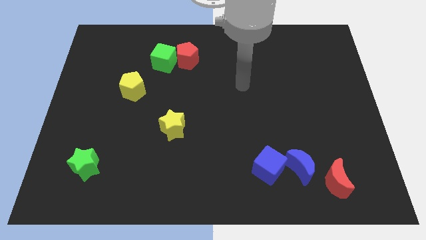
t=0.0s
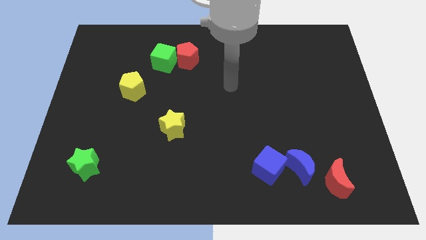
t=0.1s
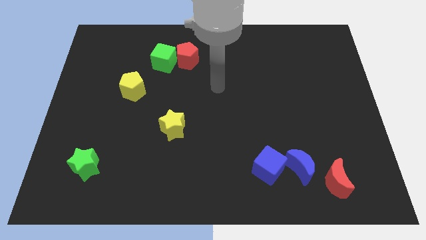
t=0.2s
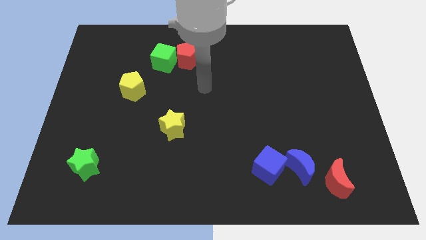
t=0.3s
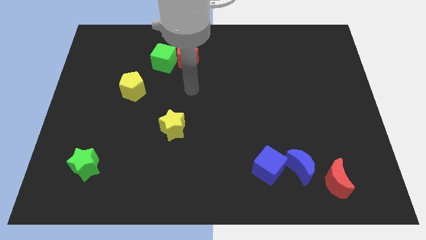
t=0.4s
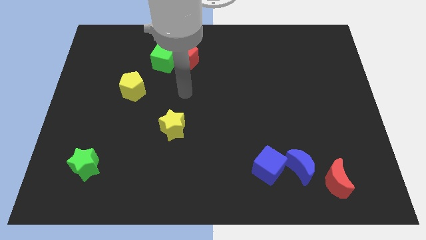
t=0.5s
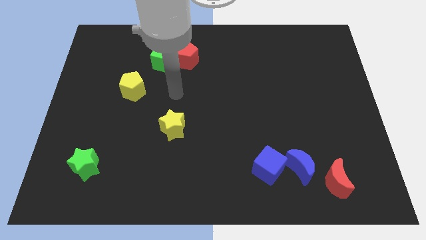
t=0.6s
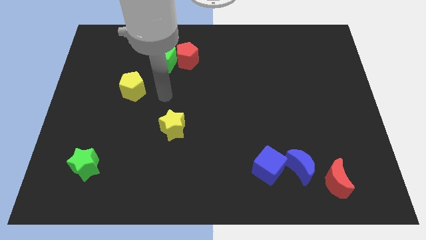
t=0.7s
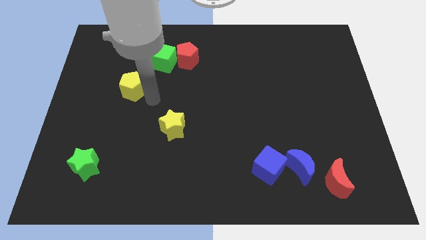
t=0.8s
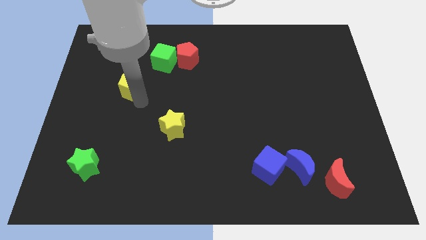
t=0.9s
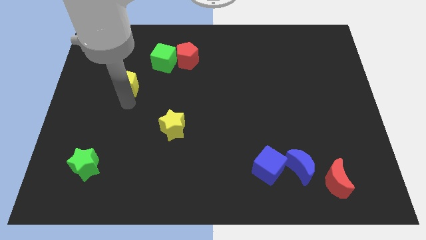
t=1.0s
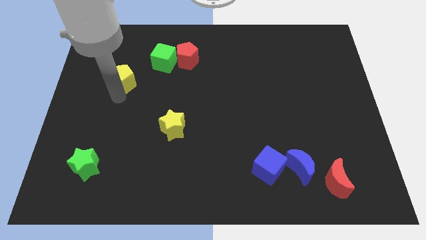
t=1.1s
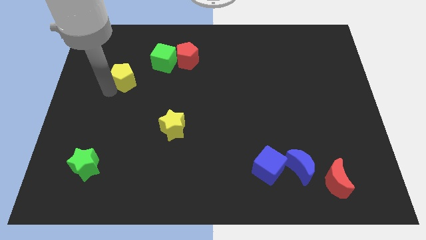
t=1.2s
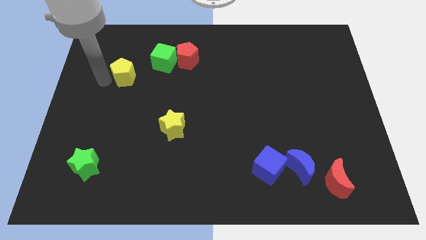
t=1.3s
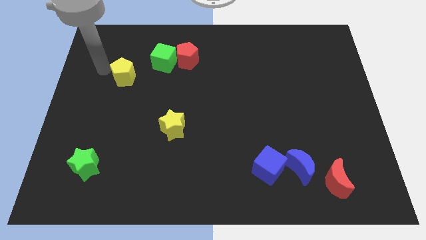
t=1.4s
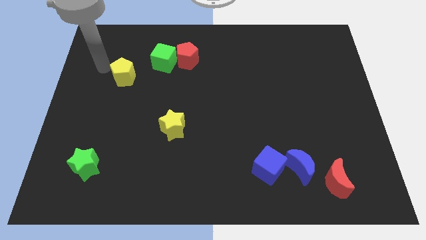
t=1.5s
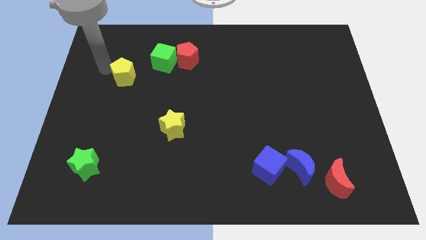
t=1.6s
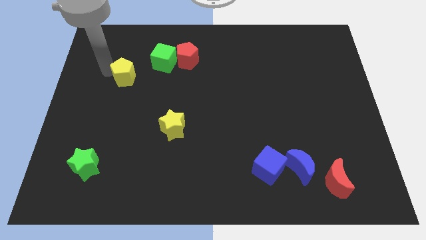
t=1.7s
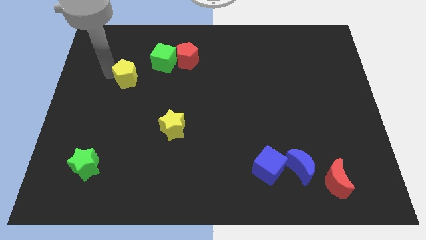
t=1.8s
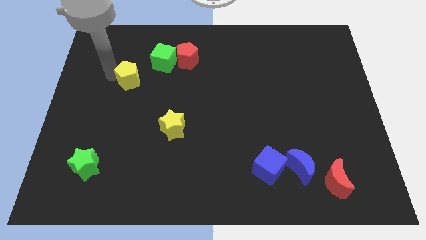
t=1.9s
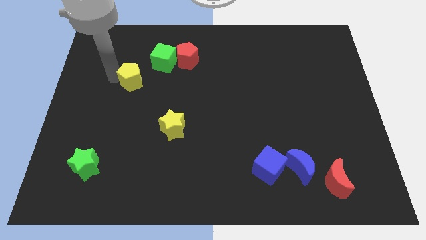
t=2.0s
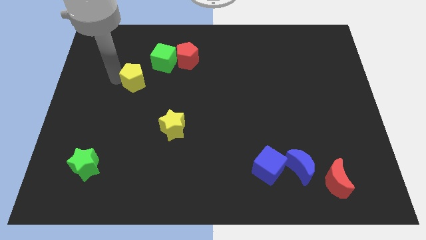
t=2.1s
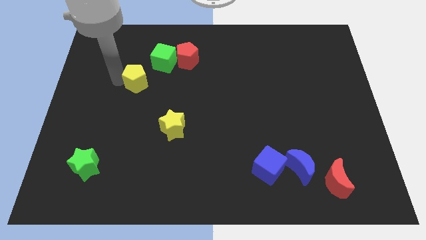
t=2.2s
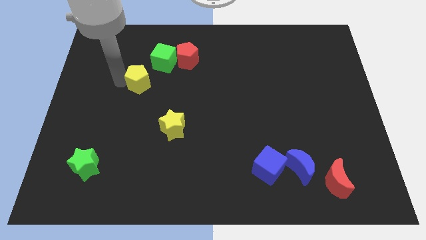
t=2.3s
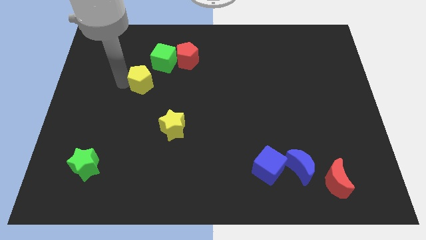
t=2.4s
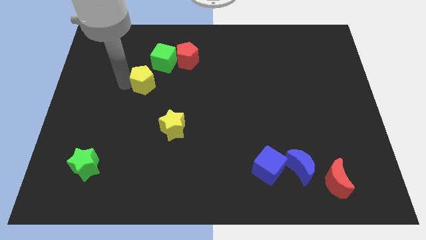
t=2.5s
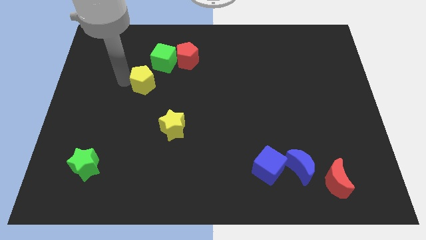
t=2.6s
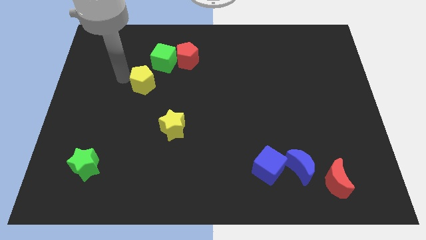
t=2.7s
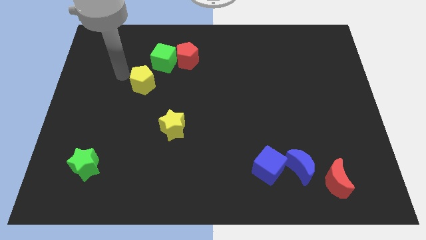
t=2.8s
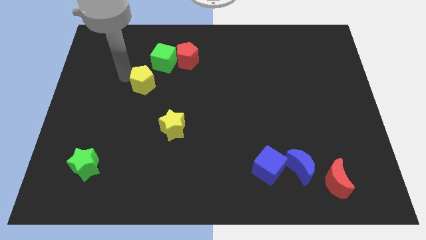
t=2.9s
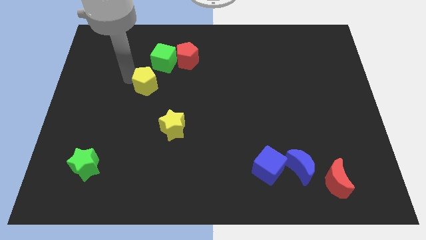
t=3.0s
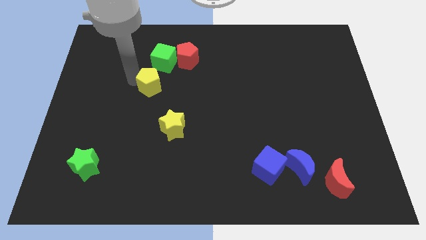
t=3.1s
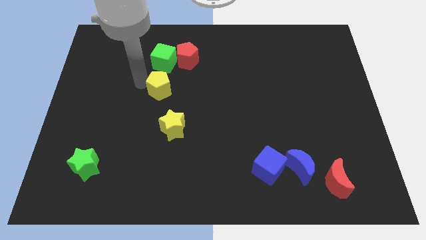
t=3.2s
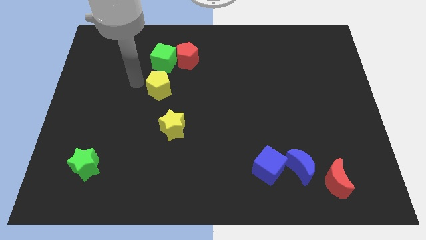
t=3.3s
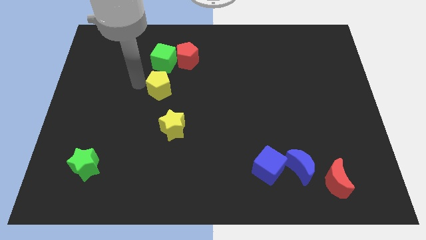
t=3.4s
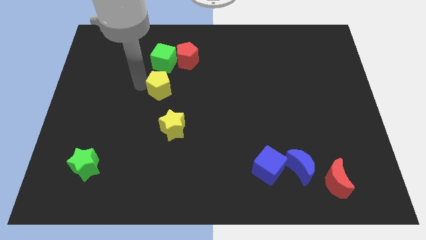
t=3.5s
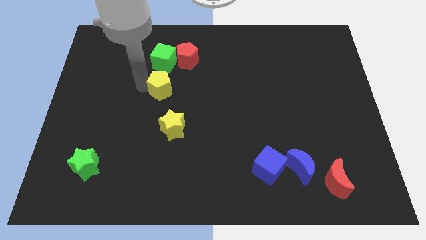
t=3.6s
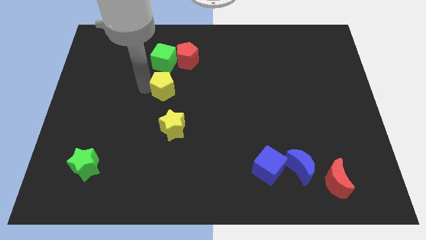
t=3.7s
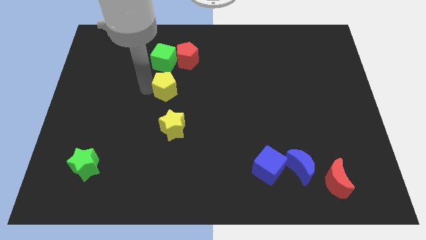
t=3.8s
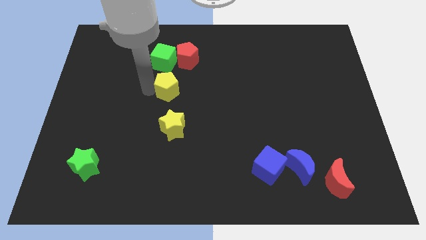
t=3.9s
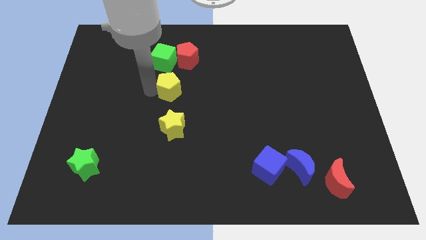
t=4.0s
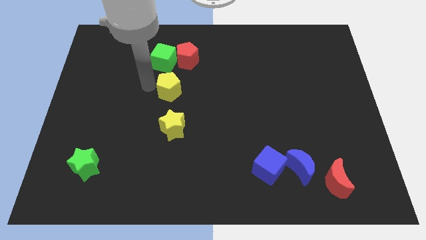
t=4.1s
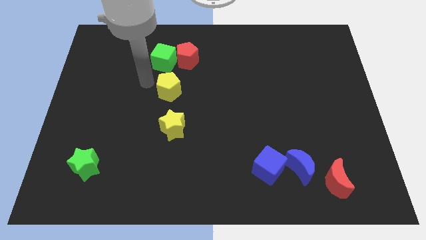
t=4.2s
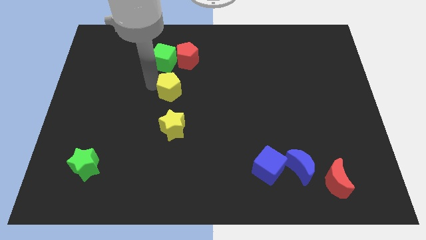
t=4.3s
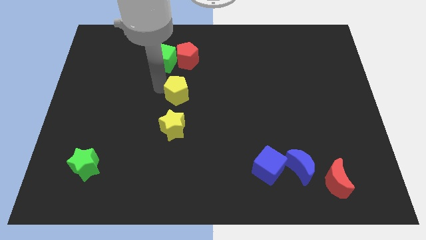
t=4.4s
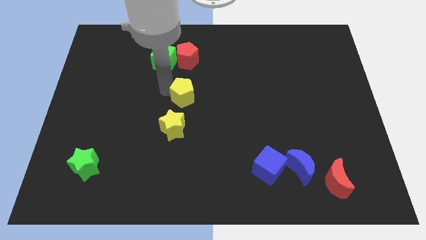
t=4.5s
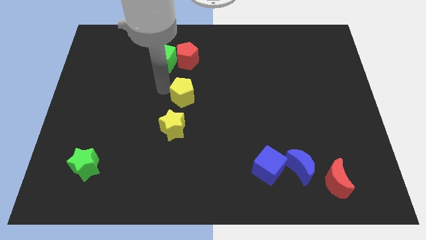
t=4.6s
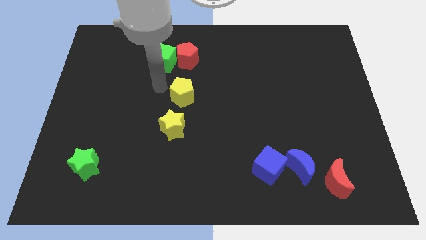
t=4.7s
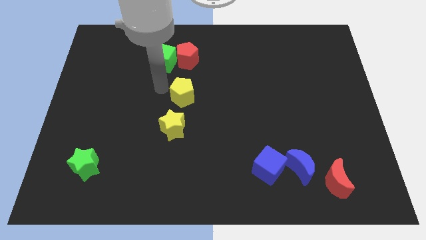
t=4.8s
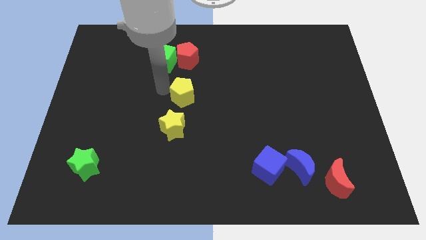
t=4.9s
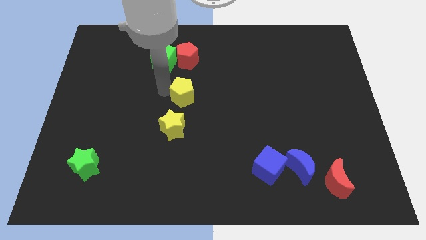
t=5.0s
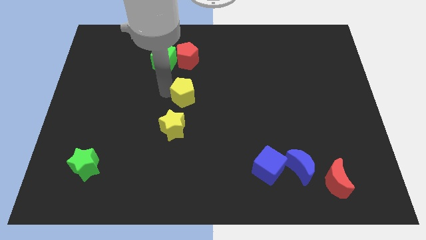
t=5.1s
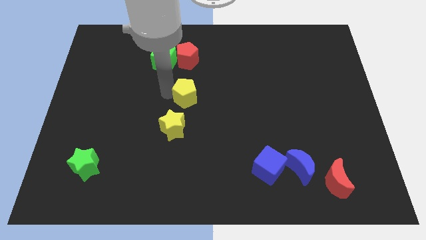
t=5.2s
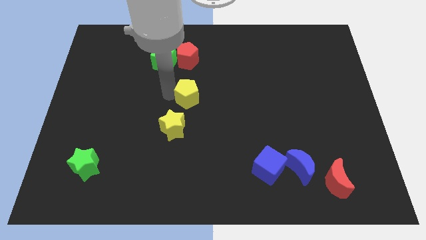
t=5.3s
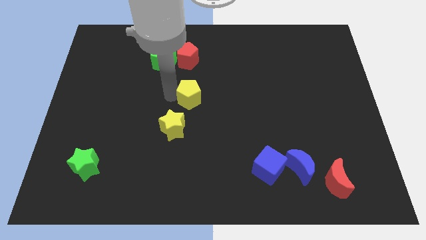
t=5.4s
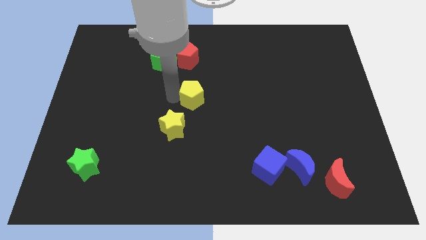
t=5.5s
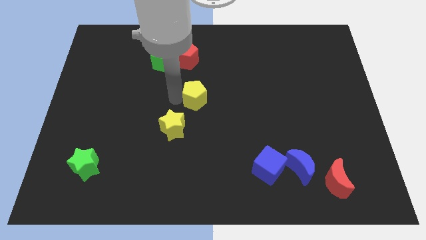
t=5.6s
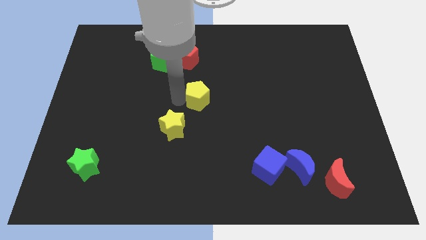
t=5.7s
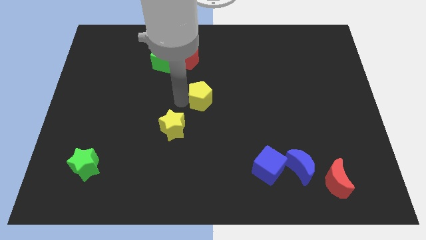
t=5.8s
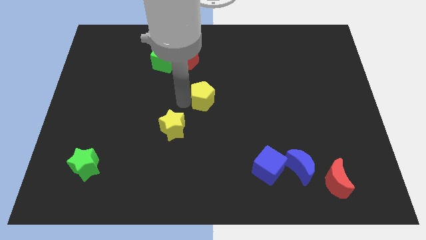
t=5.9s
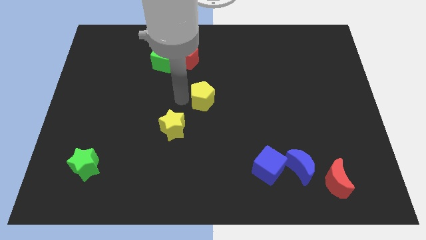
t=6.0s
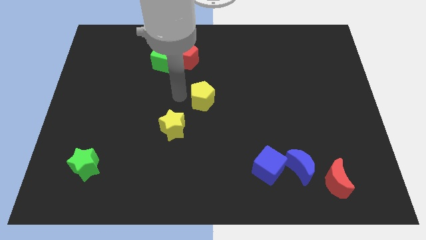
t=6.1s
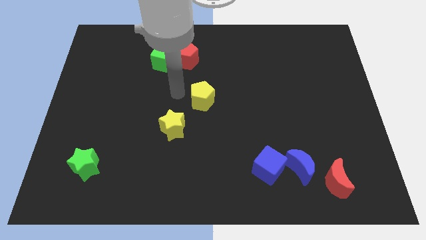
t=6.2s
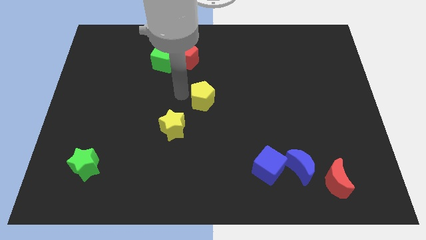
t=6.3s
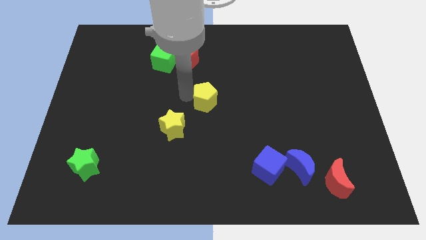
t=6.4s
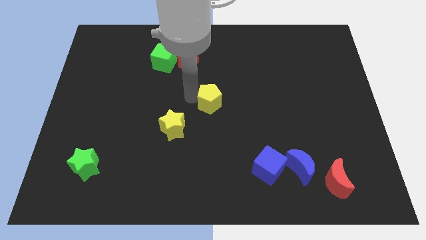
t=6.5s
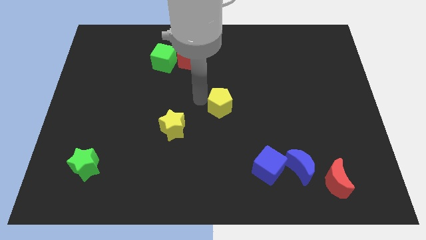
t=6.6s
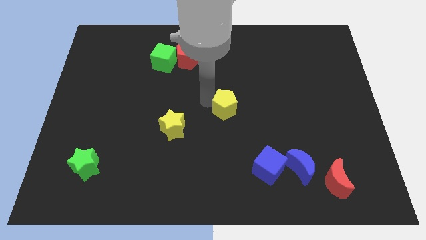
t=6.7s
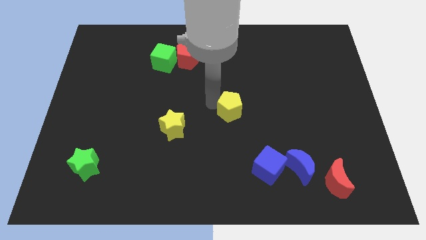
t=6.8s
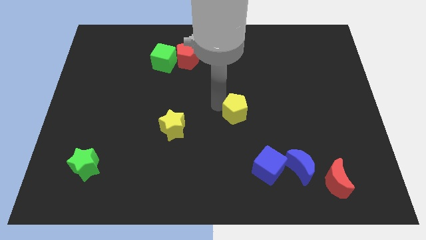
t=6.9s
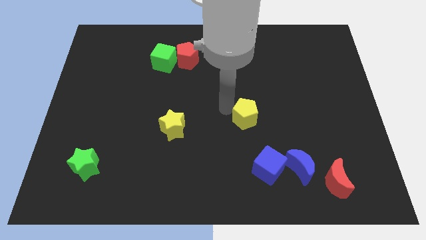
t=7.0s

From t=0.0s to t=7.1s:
move the yellow pentagon above the blue cube
